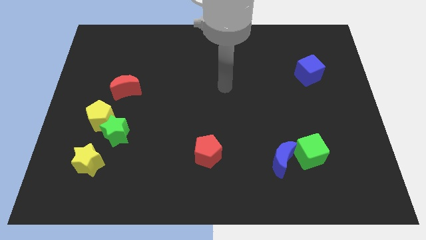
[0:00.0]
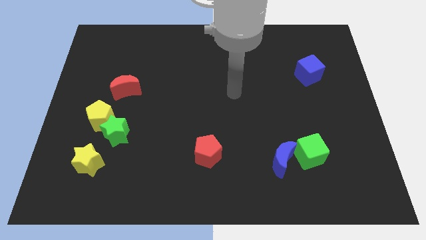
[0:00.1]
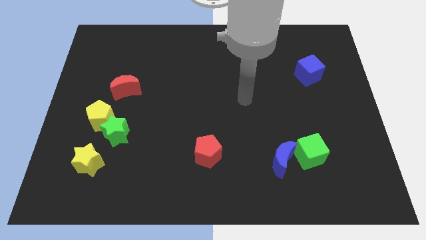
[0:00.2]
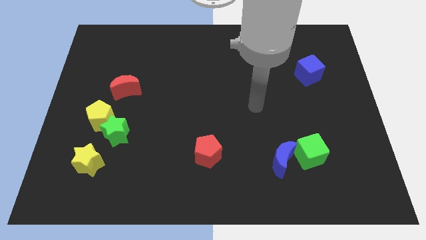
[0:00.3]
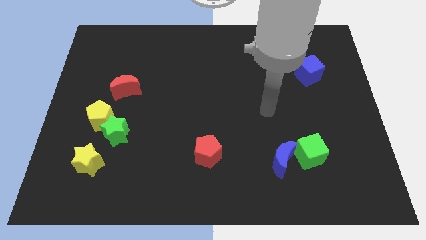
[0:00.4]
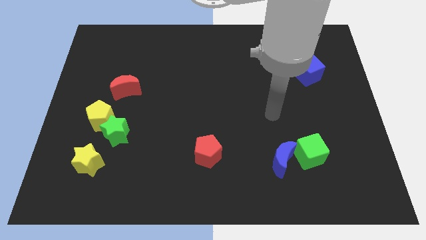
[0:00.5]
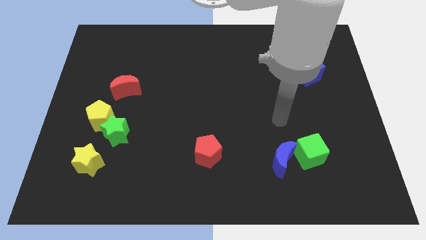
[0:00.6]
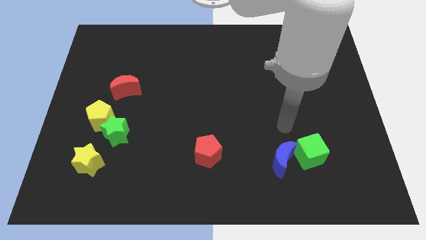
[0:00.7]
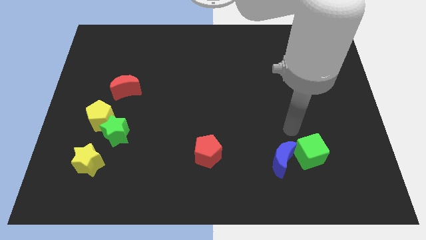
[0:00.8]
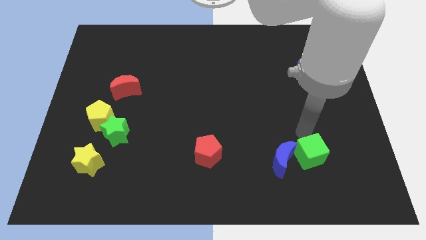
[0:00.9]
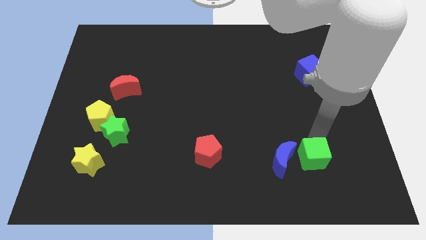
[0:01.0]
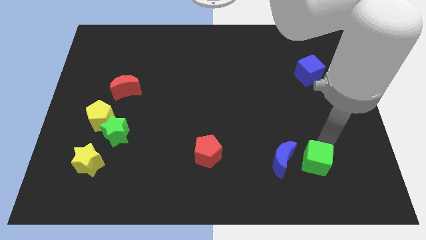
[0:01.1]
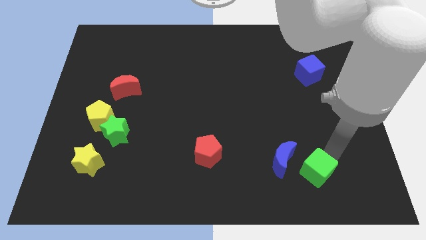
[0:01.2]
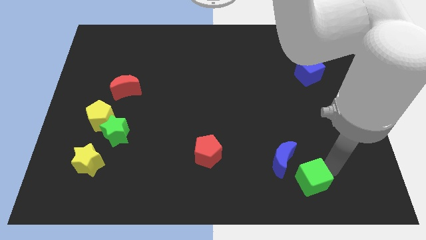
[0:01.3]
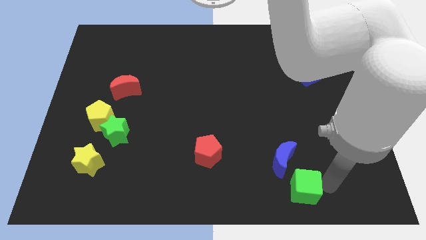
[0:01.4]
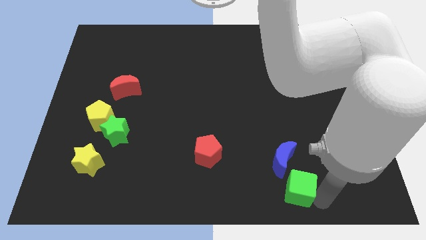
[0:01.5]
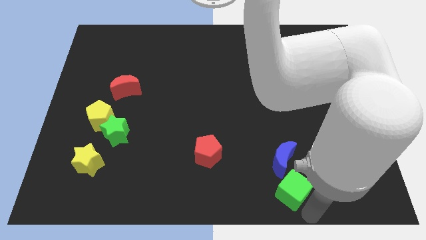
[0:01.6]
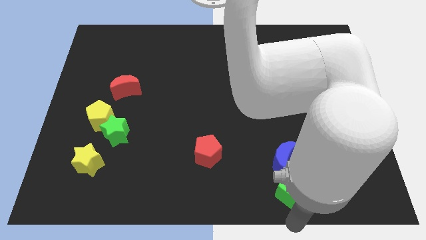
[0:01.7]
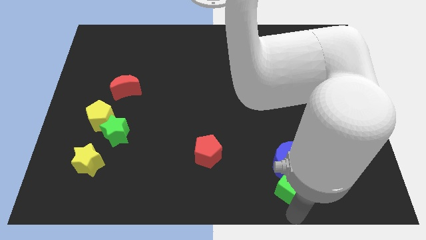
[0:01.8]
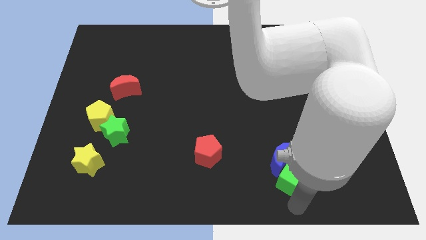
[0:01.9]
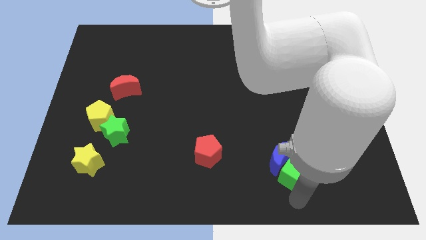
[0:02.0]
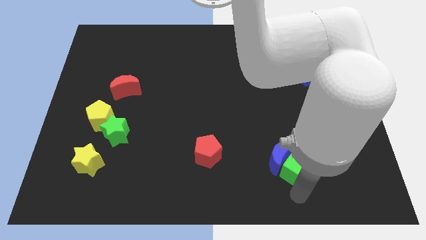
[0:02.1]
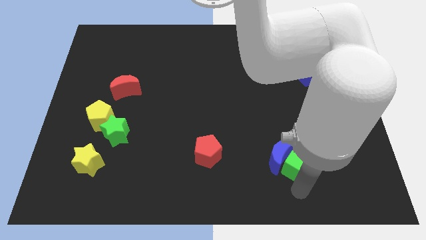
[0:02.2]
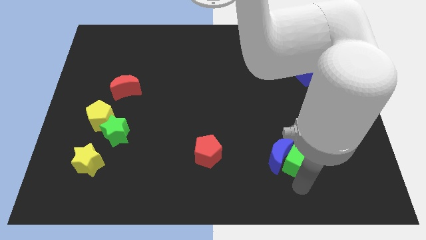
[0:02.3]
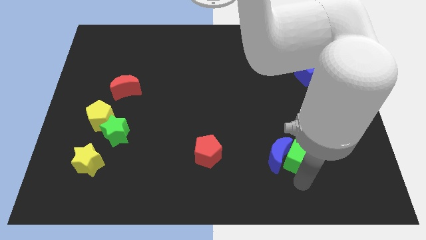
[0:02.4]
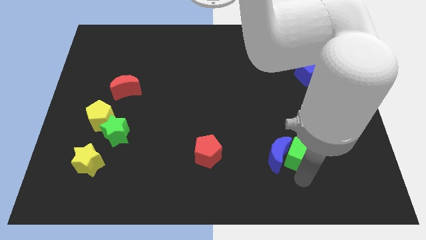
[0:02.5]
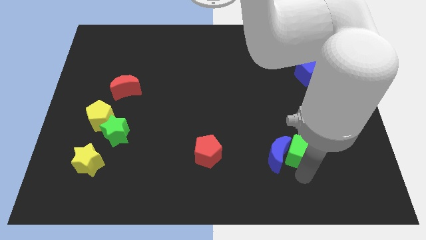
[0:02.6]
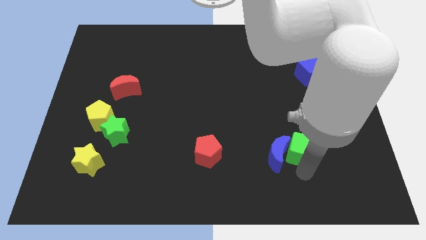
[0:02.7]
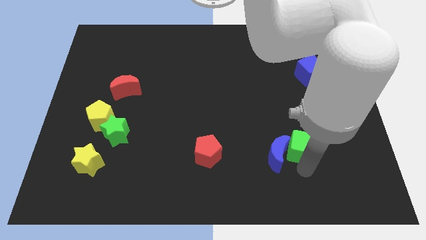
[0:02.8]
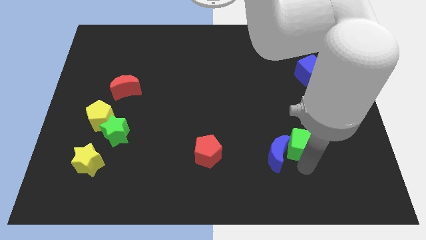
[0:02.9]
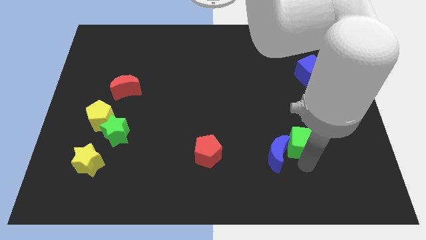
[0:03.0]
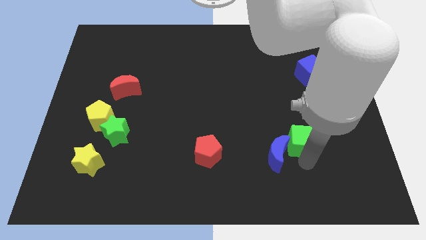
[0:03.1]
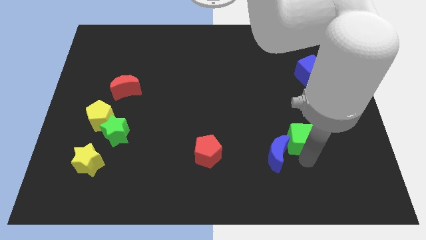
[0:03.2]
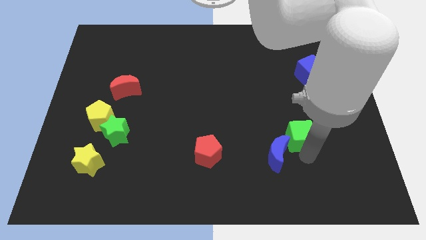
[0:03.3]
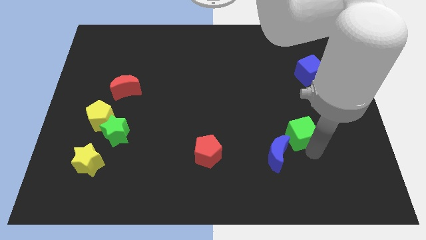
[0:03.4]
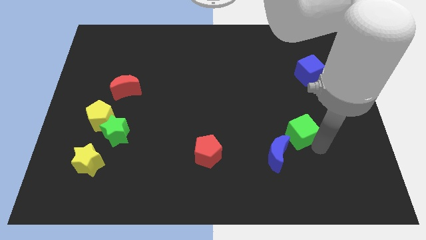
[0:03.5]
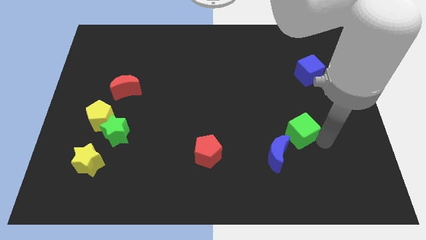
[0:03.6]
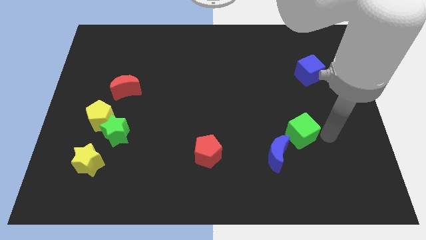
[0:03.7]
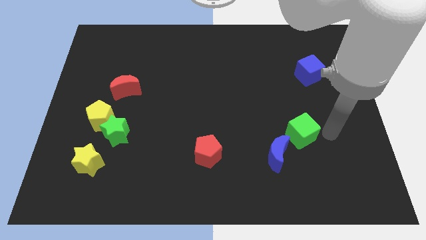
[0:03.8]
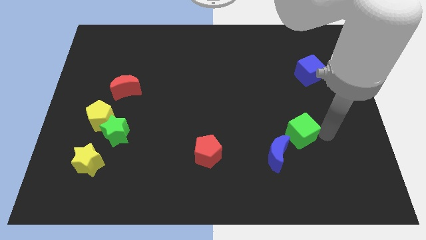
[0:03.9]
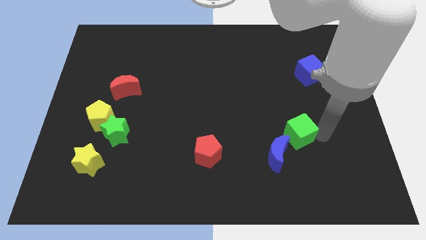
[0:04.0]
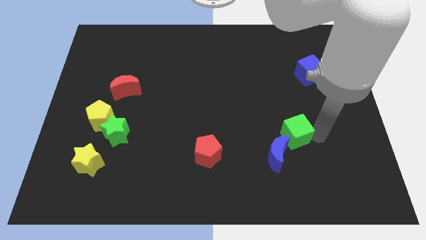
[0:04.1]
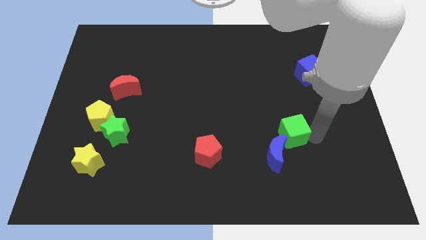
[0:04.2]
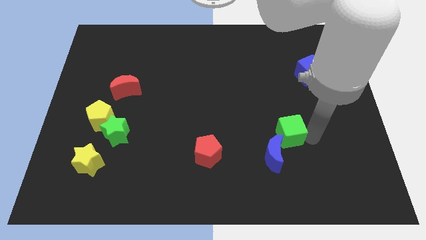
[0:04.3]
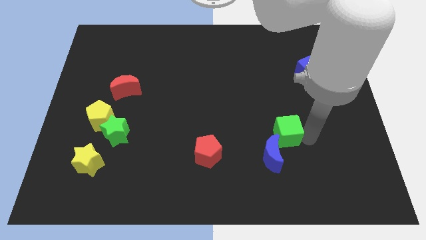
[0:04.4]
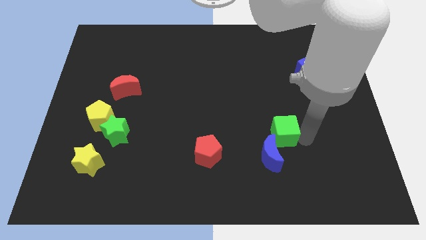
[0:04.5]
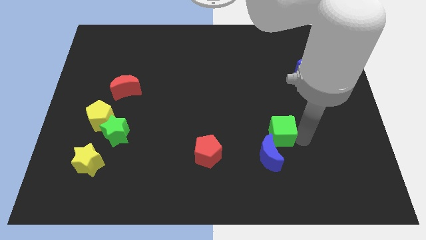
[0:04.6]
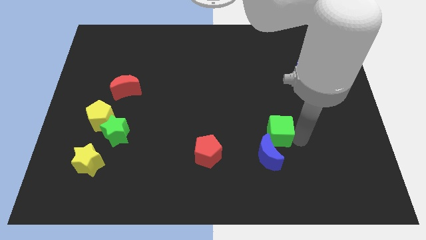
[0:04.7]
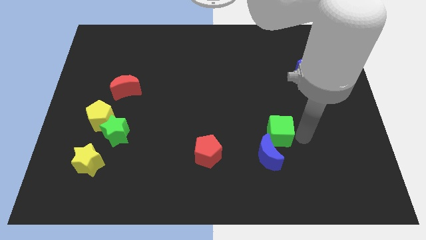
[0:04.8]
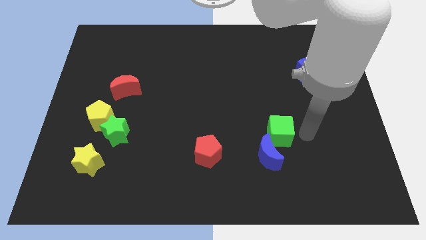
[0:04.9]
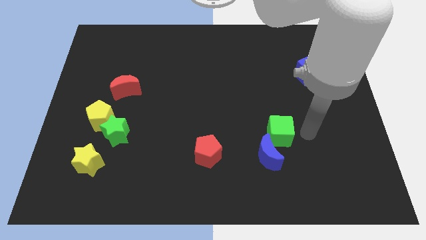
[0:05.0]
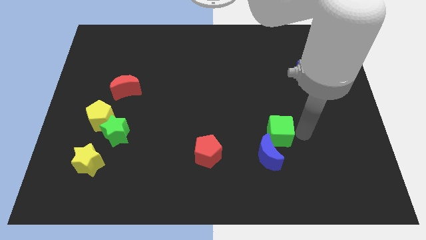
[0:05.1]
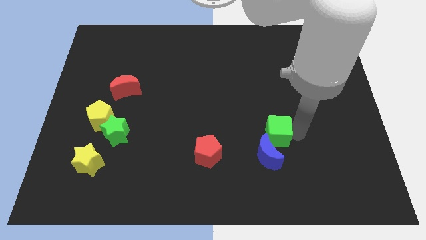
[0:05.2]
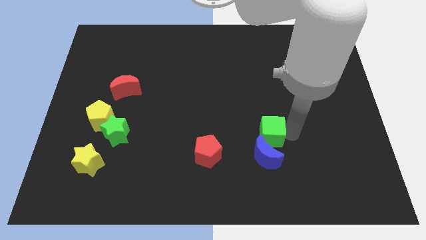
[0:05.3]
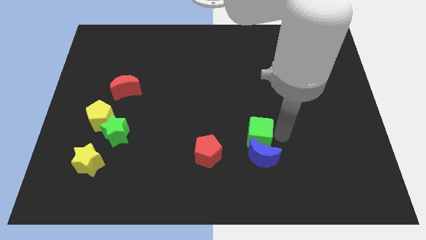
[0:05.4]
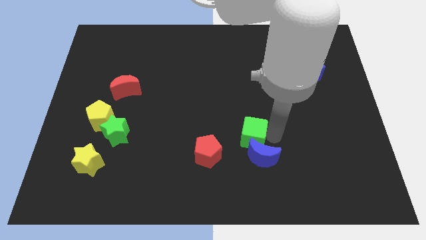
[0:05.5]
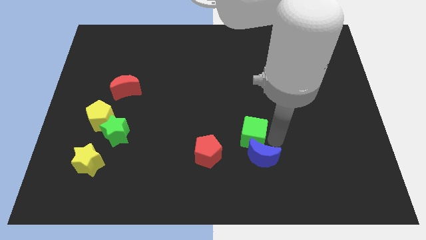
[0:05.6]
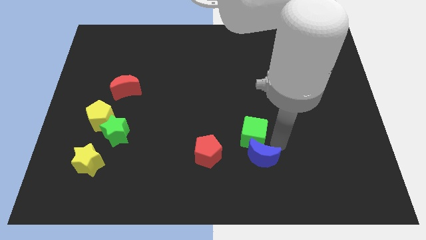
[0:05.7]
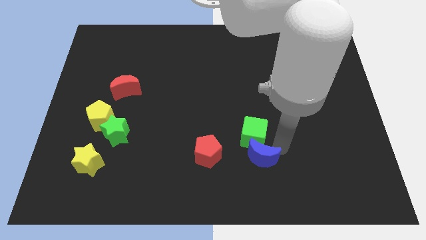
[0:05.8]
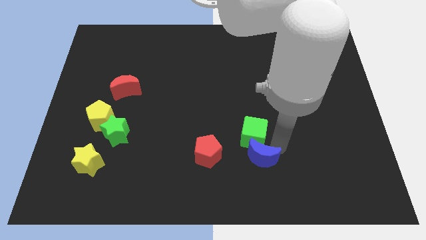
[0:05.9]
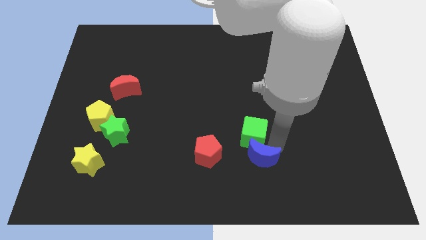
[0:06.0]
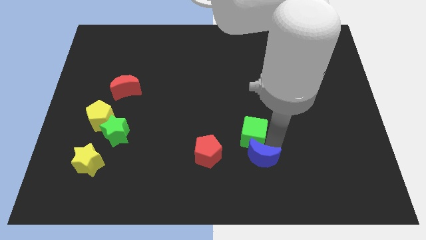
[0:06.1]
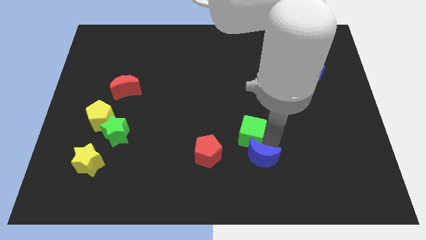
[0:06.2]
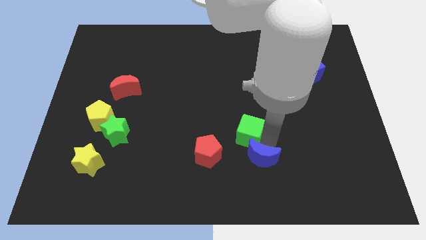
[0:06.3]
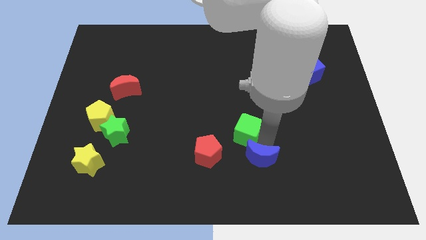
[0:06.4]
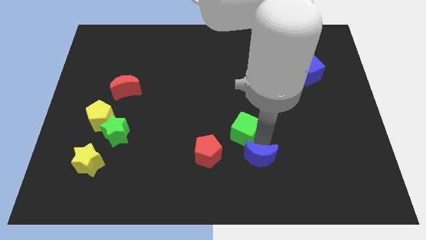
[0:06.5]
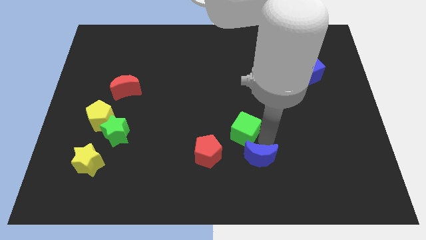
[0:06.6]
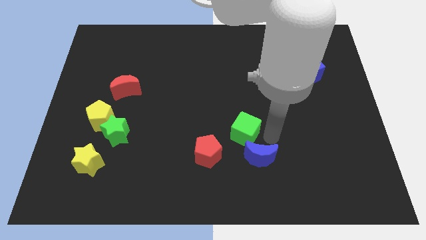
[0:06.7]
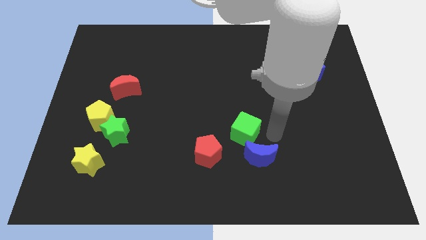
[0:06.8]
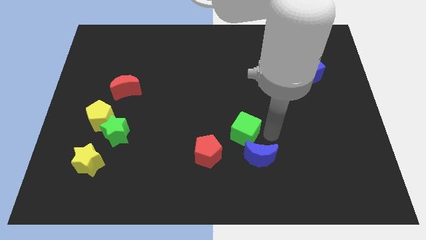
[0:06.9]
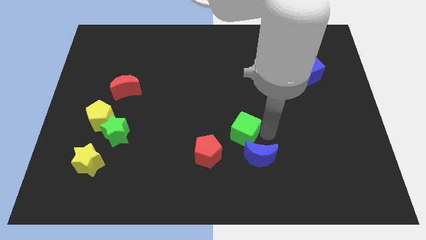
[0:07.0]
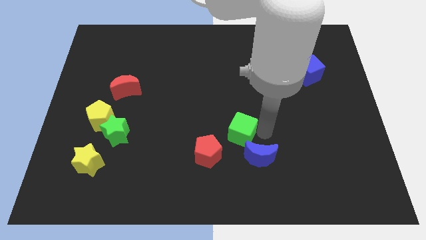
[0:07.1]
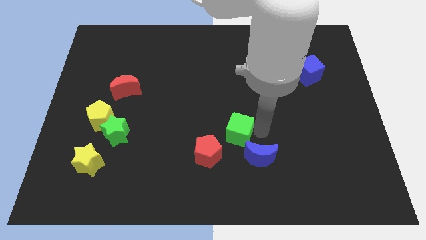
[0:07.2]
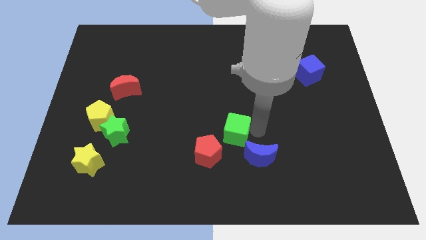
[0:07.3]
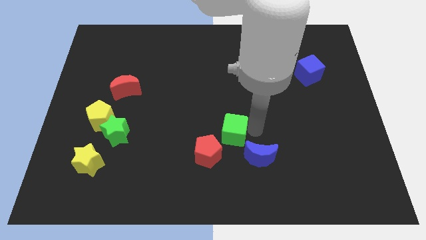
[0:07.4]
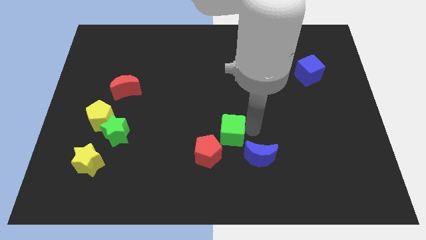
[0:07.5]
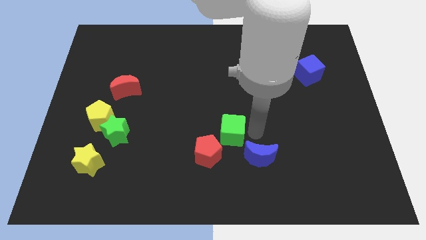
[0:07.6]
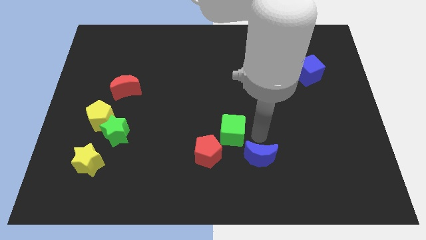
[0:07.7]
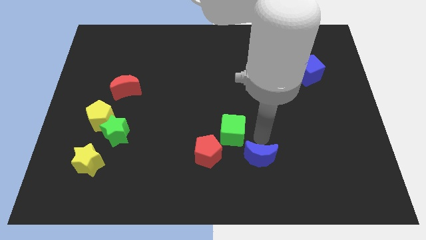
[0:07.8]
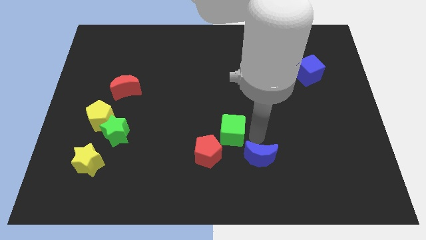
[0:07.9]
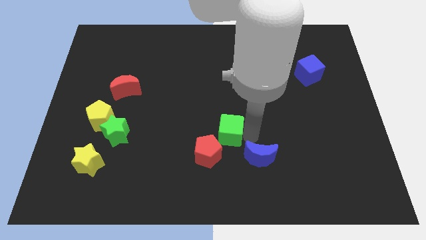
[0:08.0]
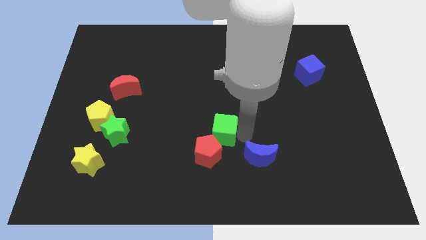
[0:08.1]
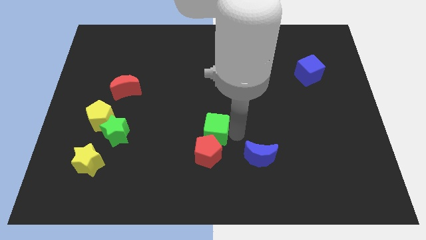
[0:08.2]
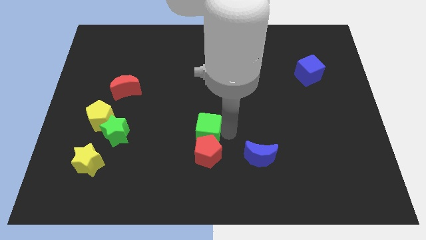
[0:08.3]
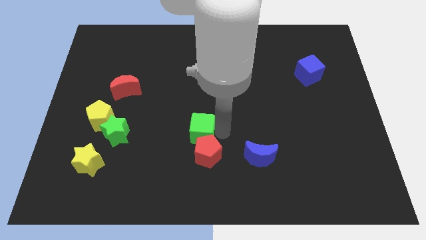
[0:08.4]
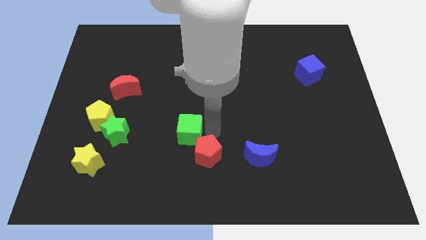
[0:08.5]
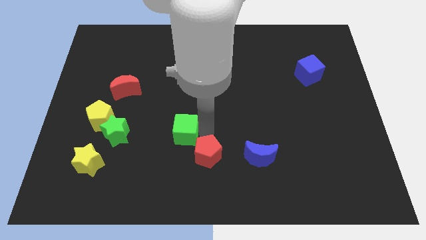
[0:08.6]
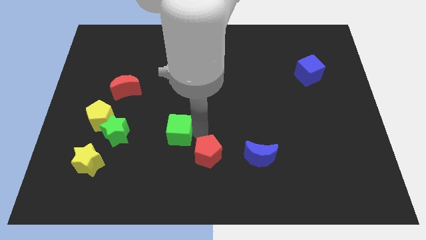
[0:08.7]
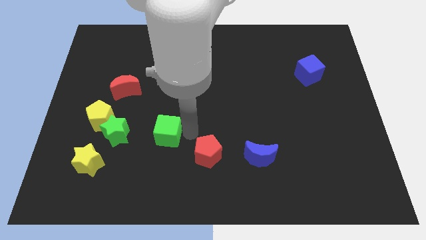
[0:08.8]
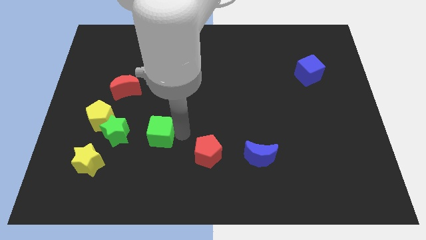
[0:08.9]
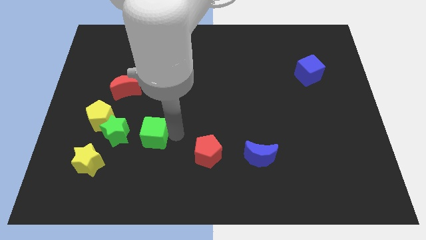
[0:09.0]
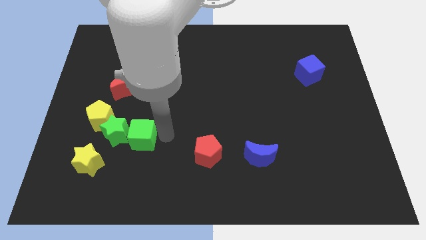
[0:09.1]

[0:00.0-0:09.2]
put the green cube towards the green star
